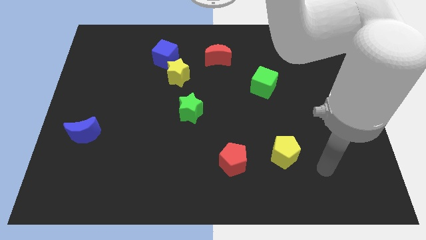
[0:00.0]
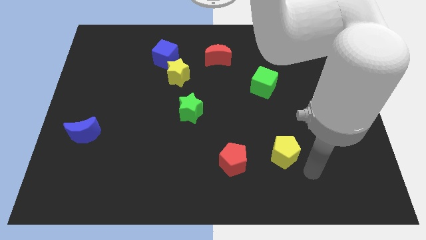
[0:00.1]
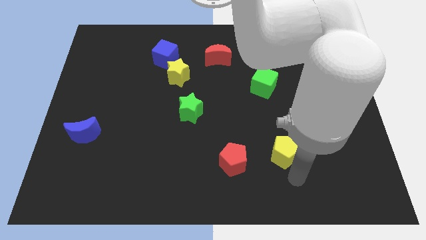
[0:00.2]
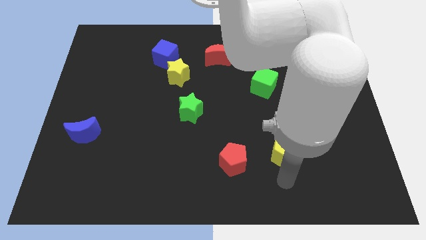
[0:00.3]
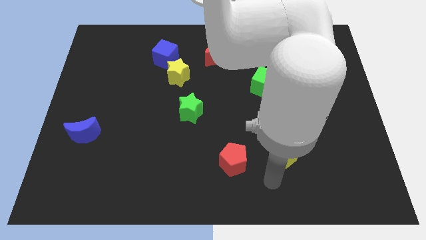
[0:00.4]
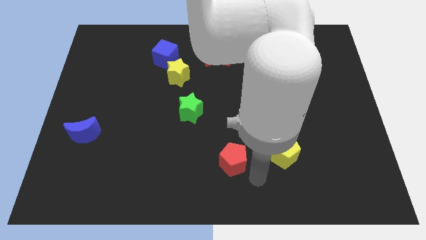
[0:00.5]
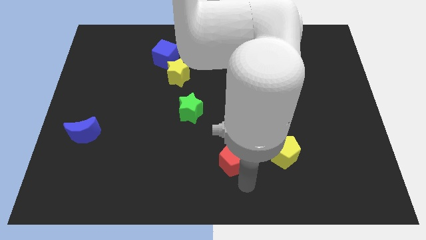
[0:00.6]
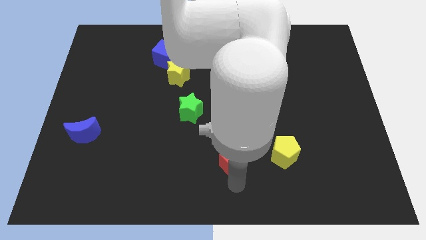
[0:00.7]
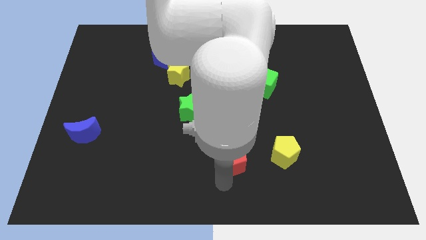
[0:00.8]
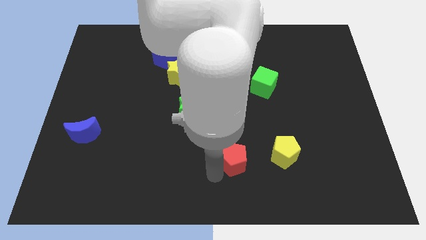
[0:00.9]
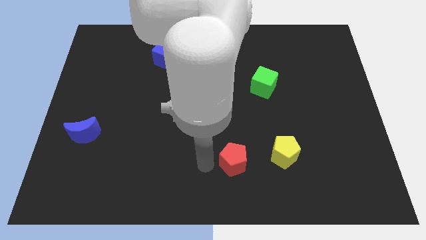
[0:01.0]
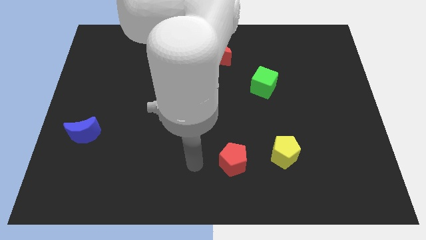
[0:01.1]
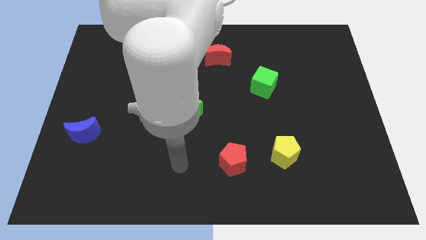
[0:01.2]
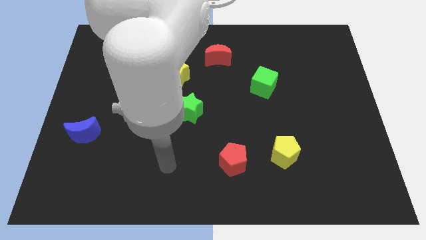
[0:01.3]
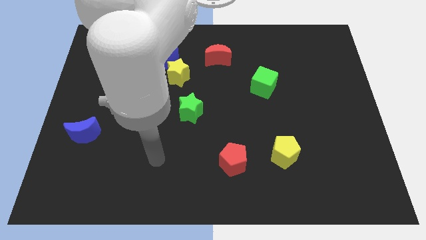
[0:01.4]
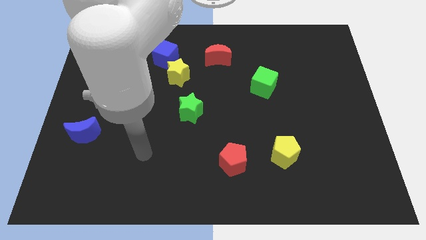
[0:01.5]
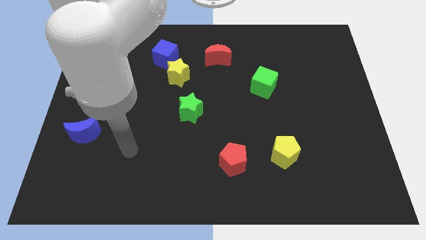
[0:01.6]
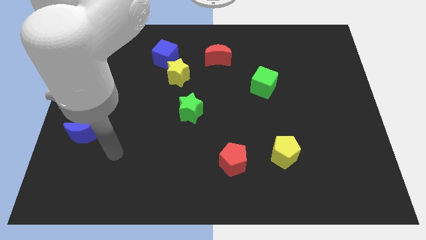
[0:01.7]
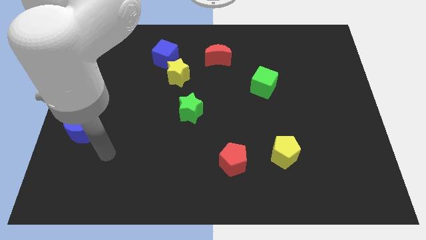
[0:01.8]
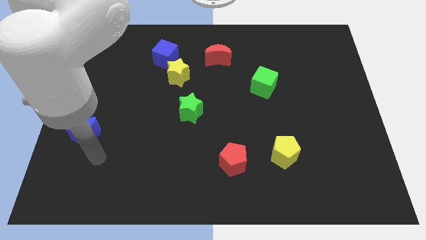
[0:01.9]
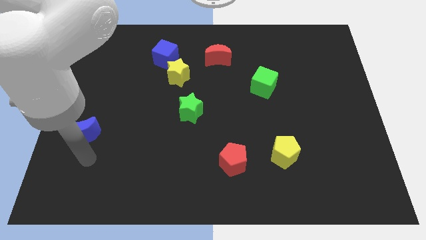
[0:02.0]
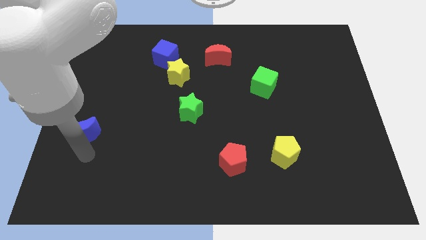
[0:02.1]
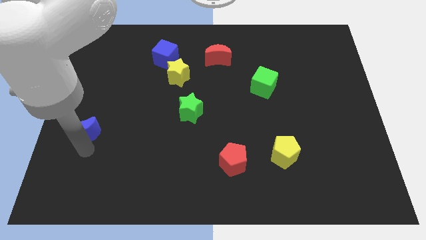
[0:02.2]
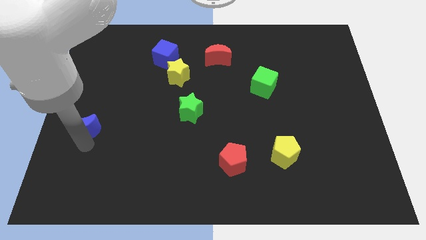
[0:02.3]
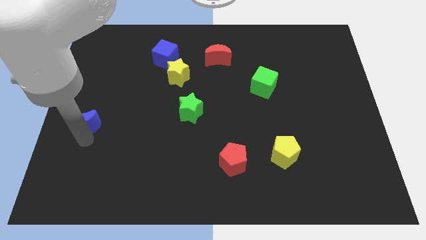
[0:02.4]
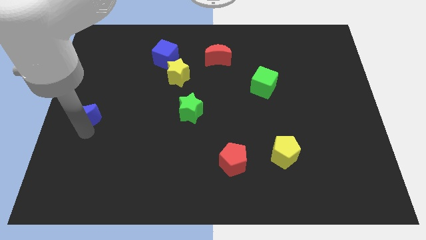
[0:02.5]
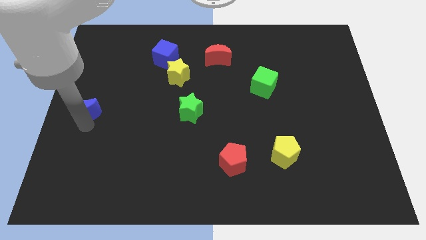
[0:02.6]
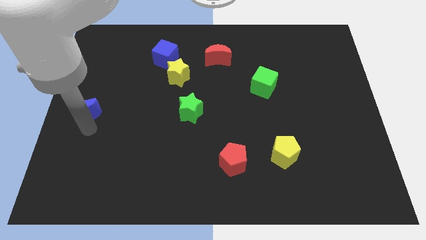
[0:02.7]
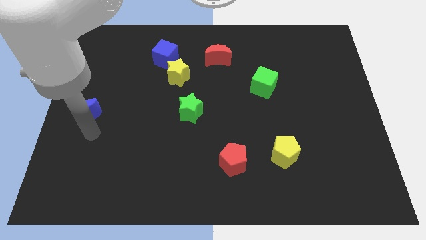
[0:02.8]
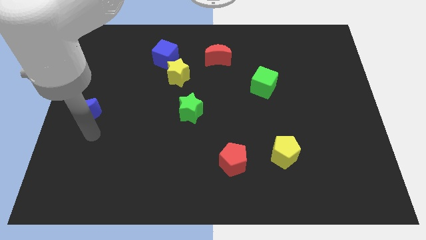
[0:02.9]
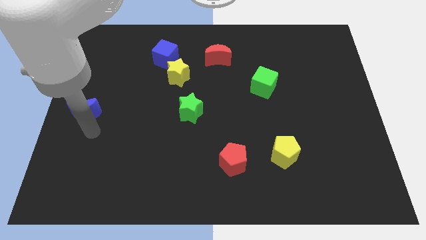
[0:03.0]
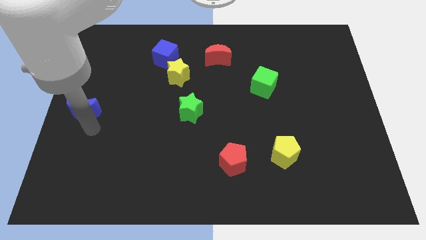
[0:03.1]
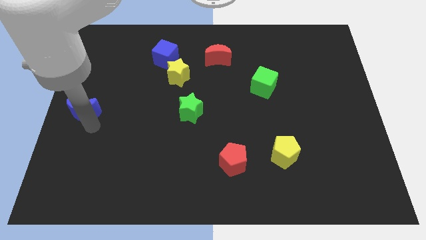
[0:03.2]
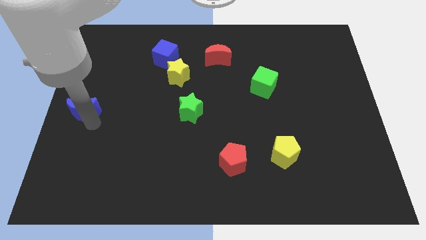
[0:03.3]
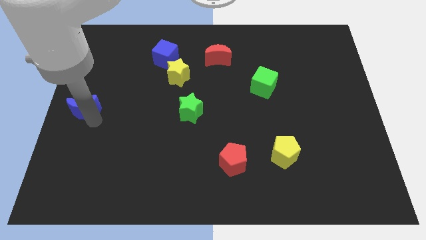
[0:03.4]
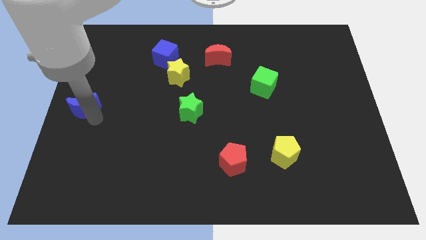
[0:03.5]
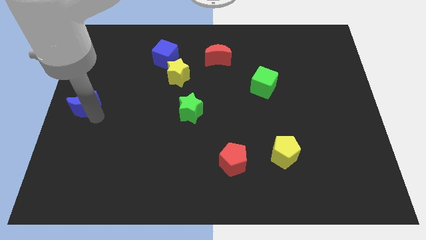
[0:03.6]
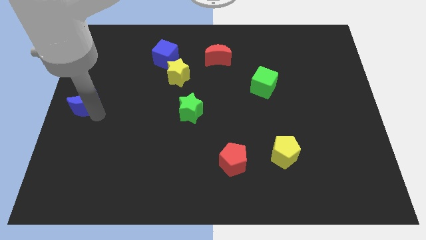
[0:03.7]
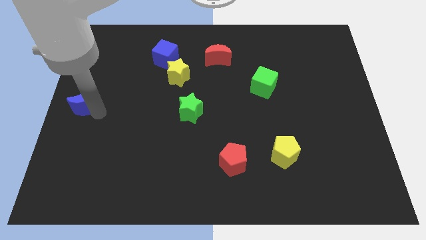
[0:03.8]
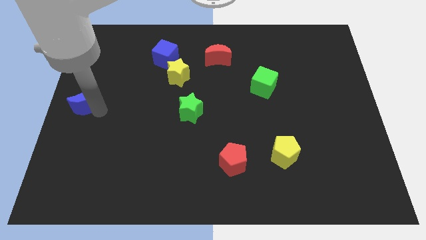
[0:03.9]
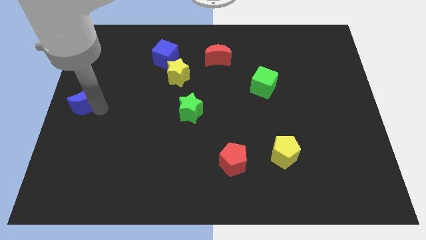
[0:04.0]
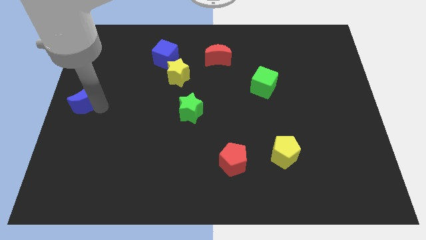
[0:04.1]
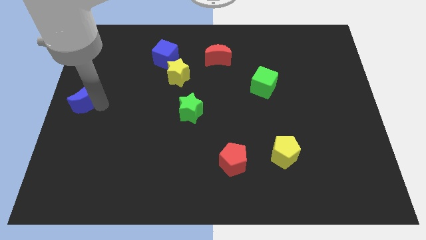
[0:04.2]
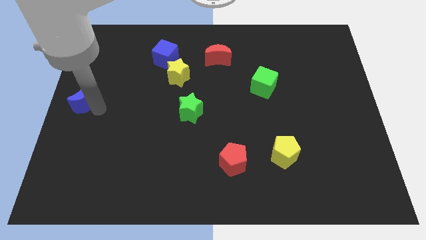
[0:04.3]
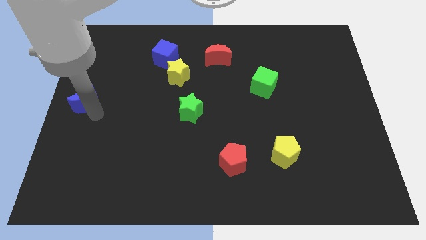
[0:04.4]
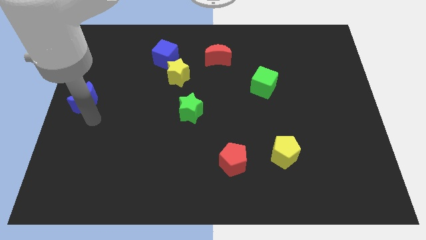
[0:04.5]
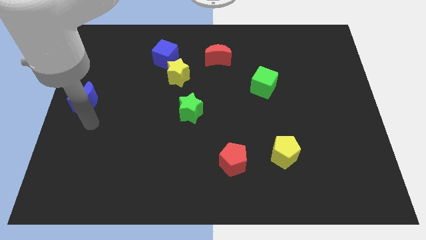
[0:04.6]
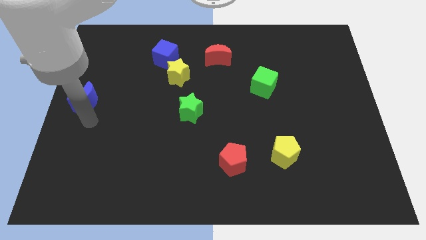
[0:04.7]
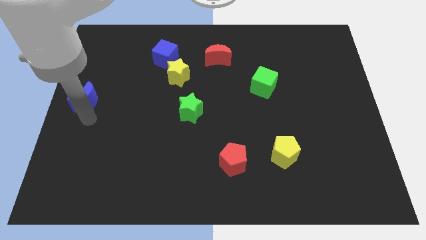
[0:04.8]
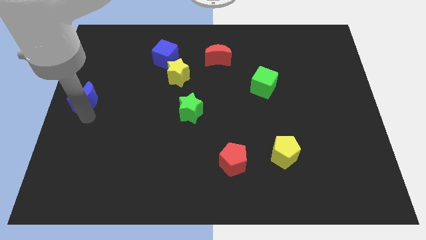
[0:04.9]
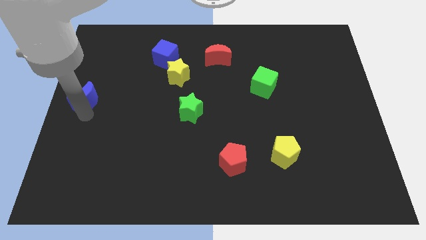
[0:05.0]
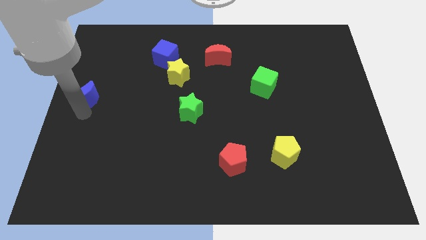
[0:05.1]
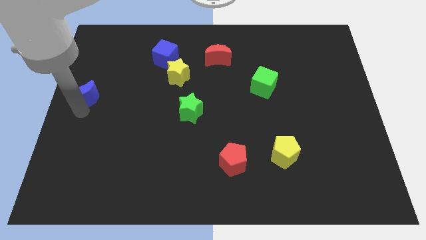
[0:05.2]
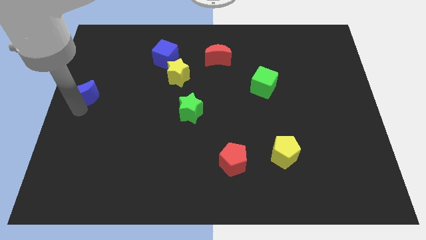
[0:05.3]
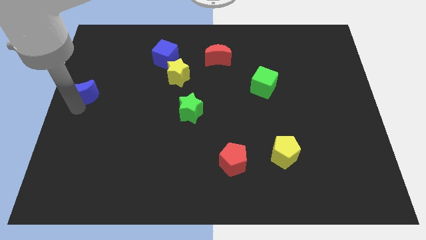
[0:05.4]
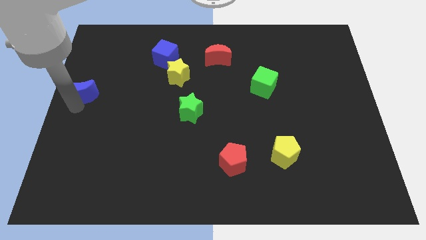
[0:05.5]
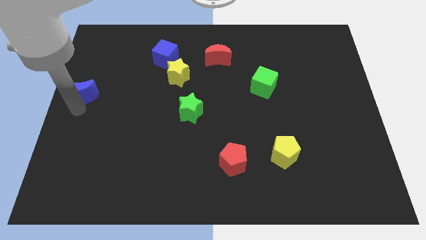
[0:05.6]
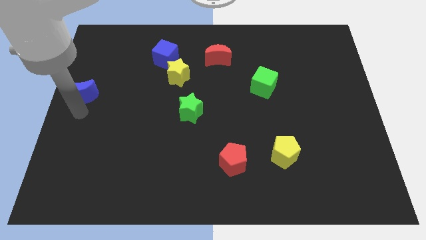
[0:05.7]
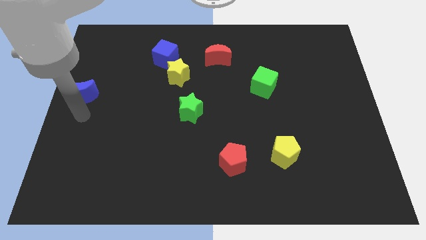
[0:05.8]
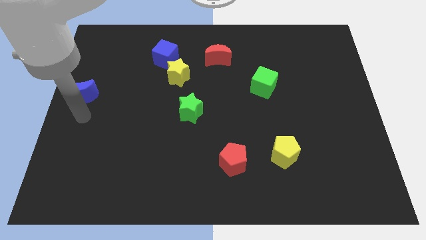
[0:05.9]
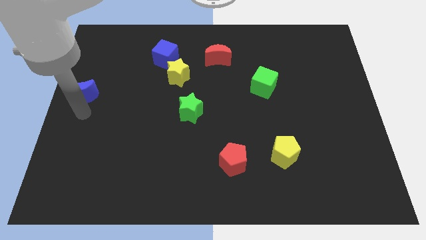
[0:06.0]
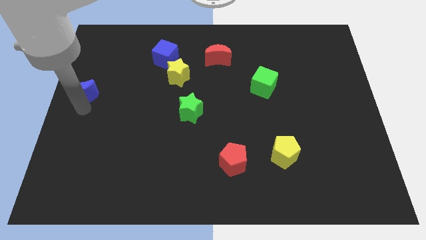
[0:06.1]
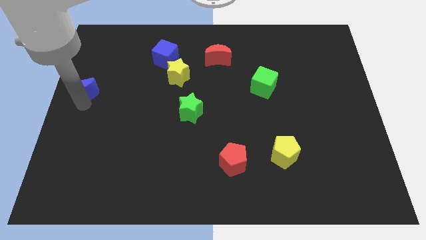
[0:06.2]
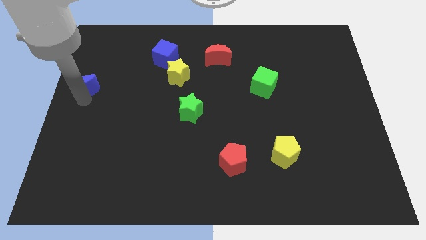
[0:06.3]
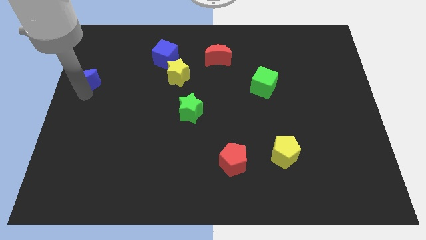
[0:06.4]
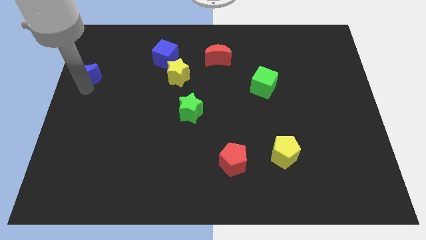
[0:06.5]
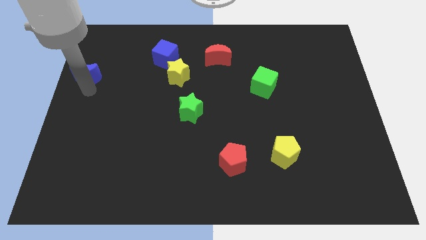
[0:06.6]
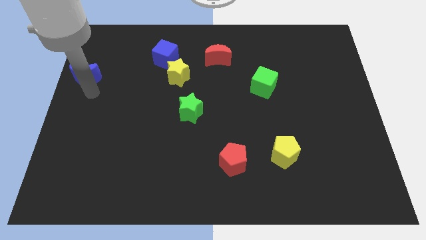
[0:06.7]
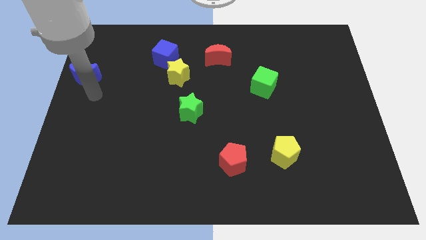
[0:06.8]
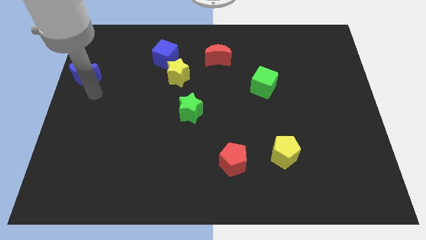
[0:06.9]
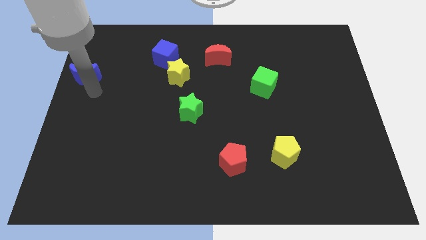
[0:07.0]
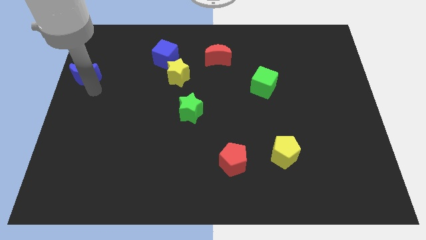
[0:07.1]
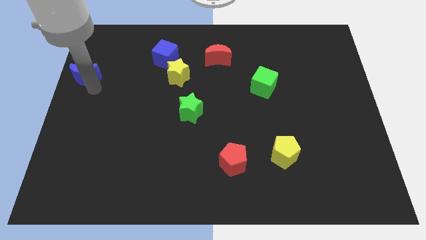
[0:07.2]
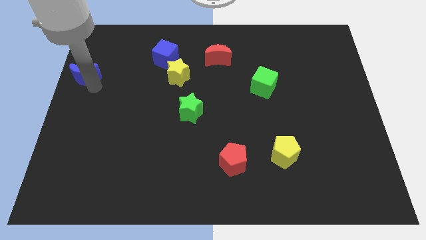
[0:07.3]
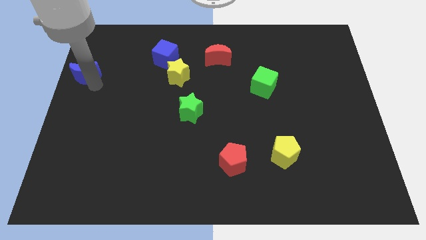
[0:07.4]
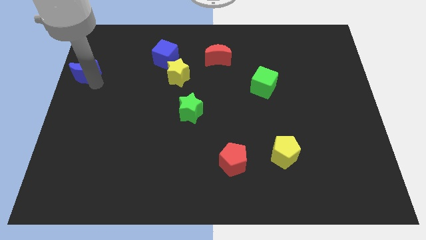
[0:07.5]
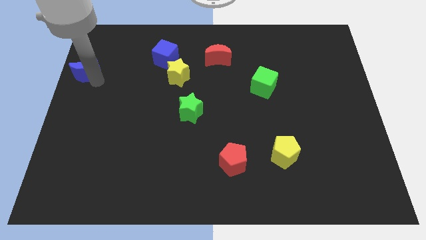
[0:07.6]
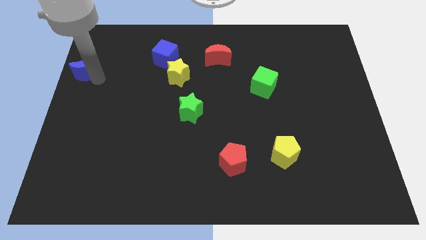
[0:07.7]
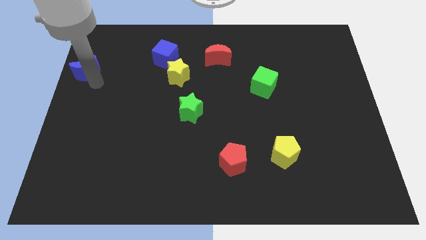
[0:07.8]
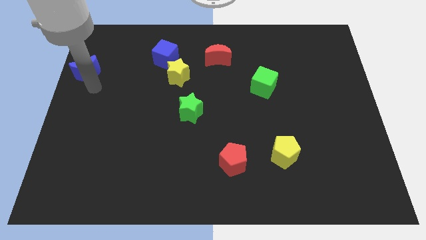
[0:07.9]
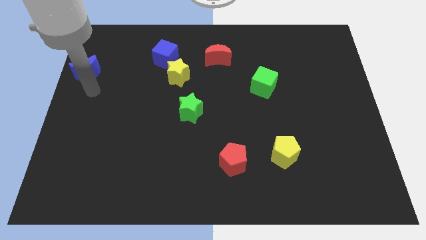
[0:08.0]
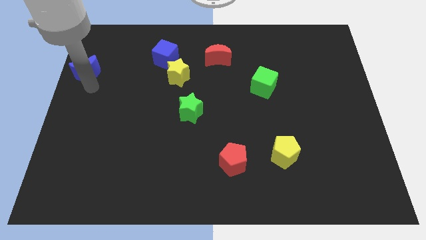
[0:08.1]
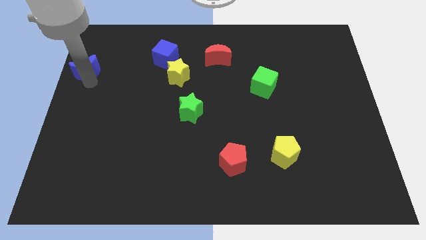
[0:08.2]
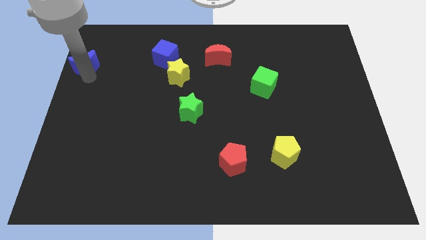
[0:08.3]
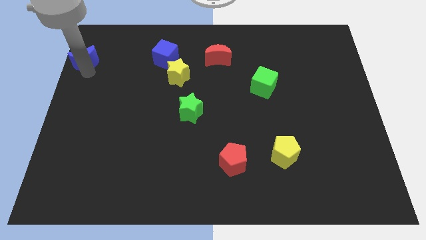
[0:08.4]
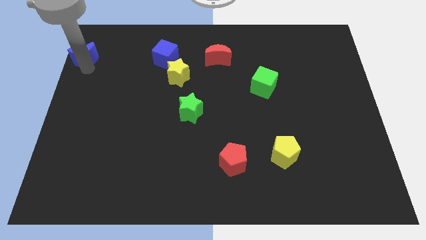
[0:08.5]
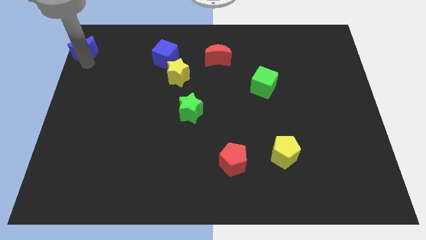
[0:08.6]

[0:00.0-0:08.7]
move the blue moon to the top left
